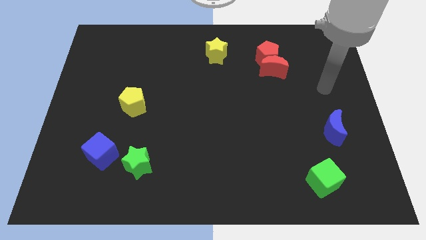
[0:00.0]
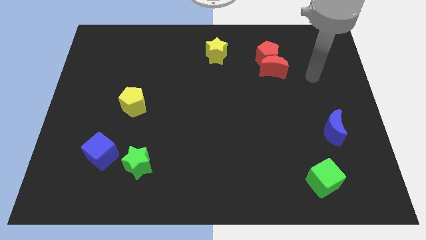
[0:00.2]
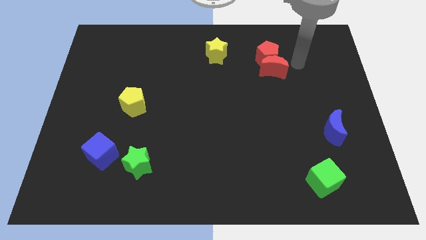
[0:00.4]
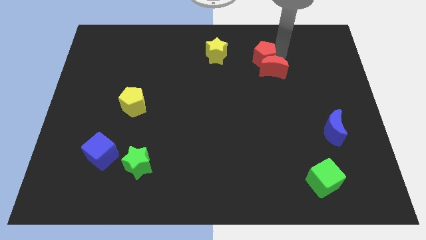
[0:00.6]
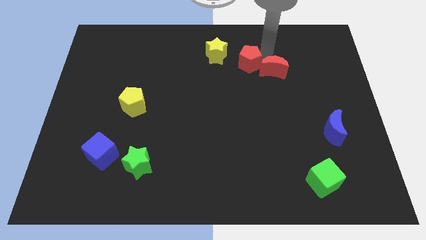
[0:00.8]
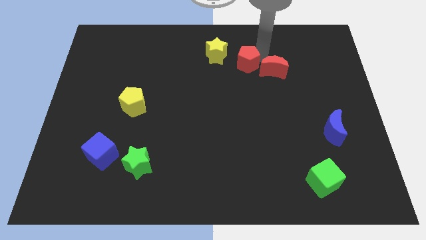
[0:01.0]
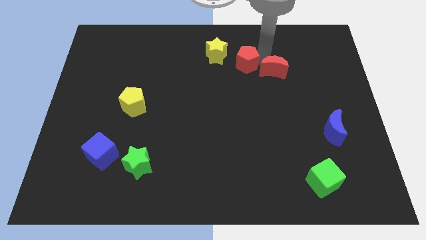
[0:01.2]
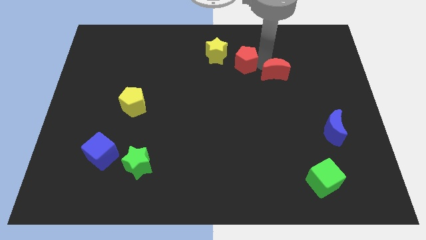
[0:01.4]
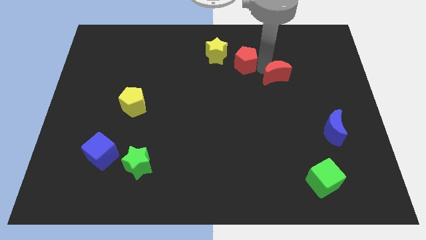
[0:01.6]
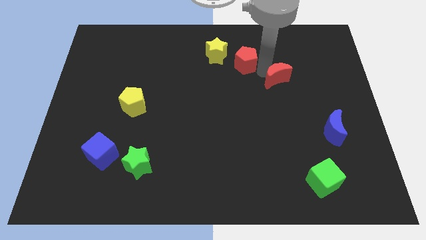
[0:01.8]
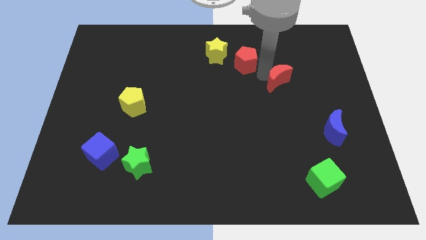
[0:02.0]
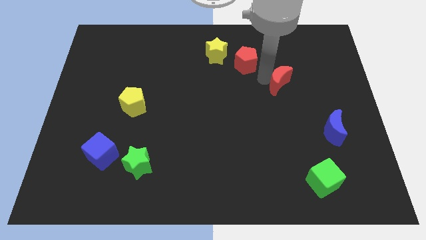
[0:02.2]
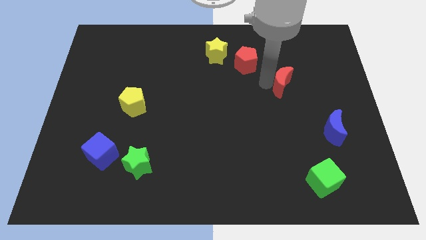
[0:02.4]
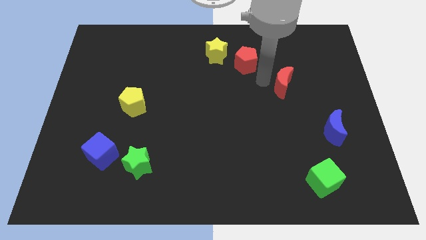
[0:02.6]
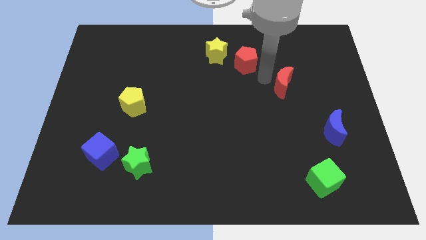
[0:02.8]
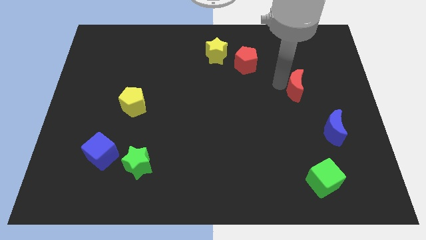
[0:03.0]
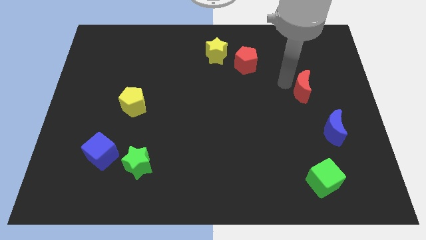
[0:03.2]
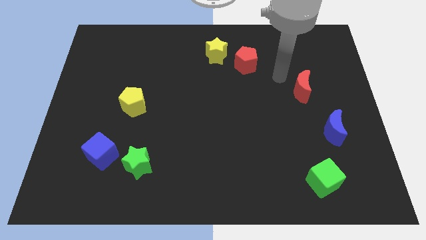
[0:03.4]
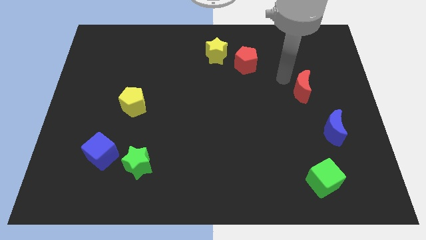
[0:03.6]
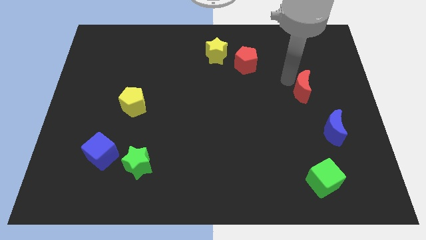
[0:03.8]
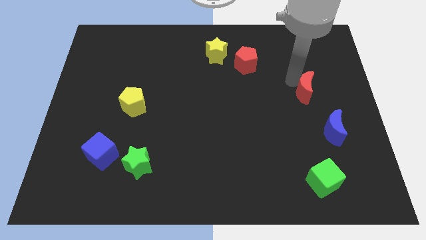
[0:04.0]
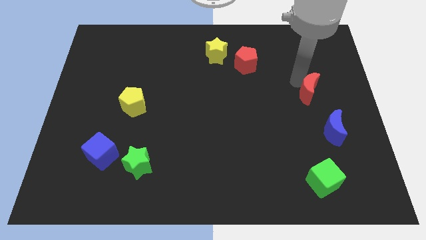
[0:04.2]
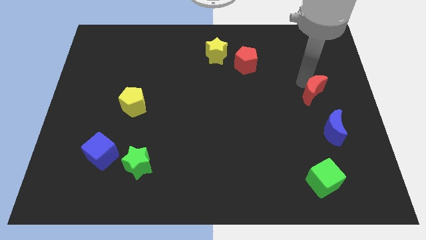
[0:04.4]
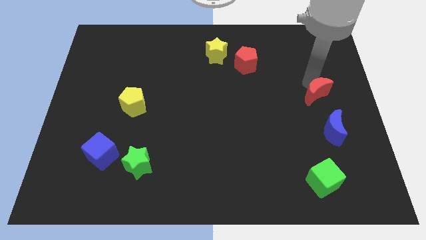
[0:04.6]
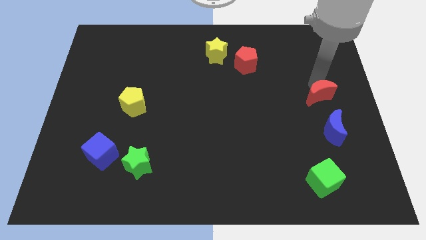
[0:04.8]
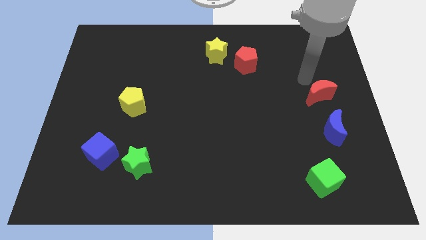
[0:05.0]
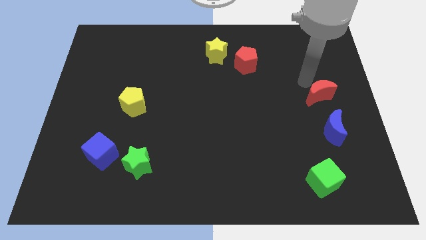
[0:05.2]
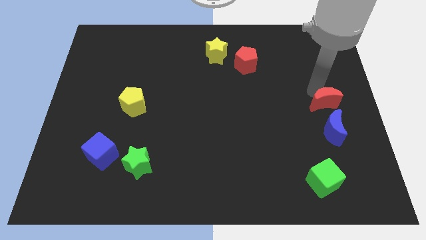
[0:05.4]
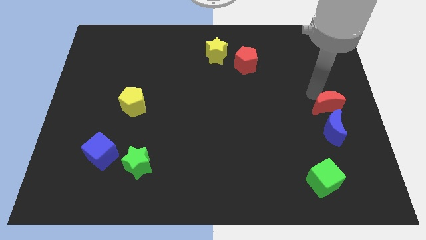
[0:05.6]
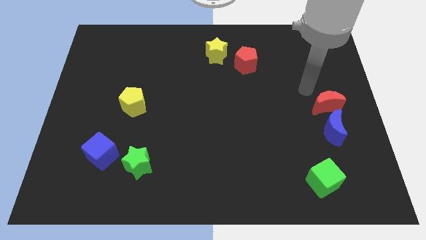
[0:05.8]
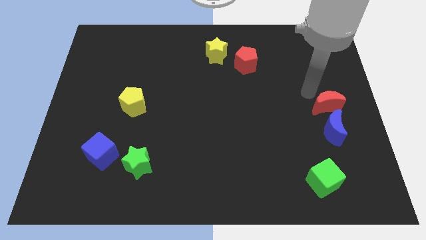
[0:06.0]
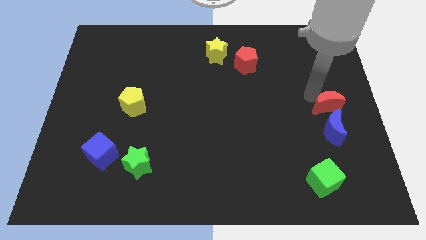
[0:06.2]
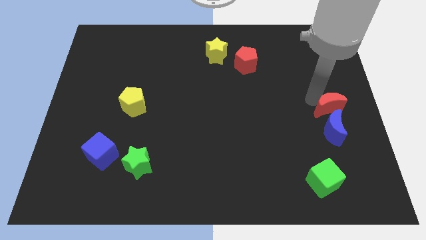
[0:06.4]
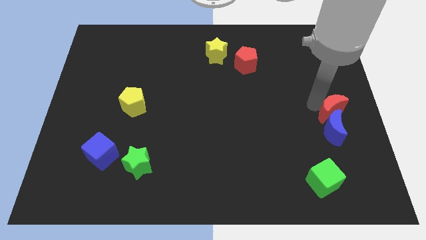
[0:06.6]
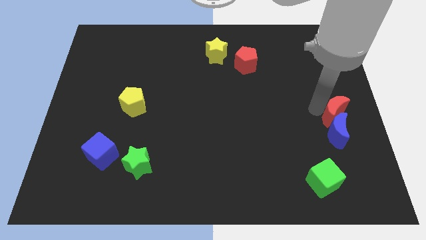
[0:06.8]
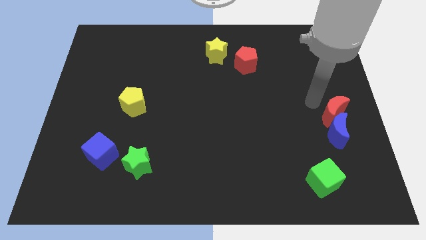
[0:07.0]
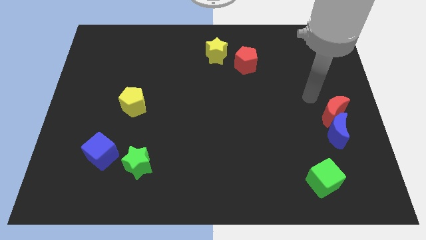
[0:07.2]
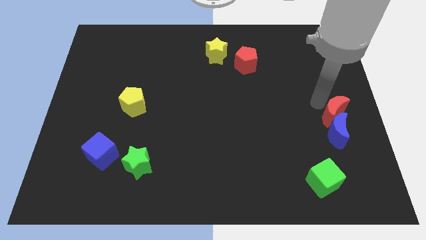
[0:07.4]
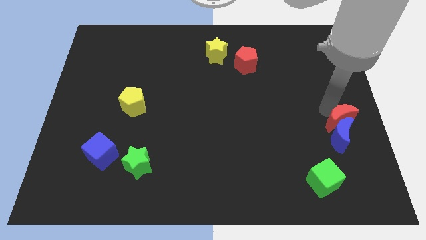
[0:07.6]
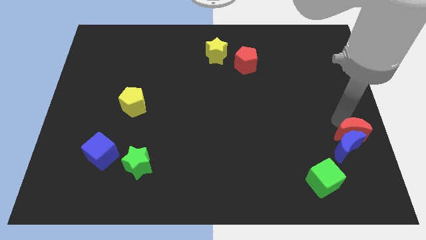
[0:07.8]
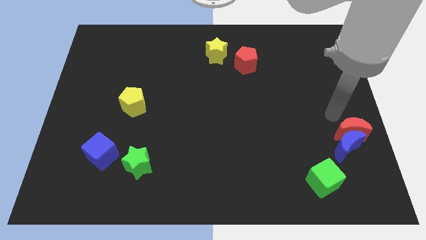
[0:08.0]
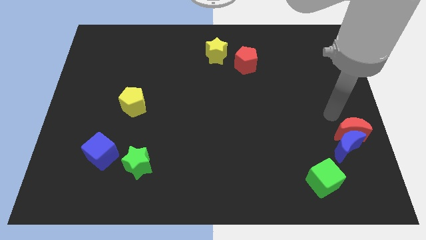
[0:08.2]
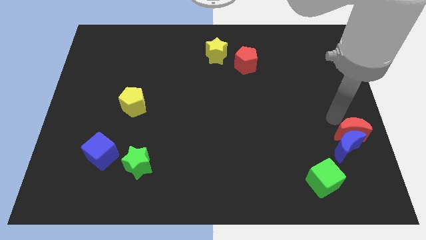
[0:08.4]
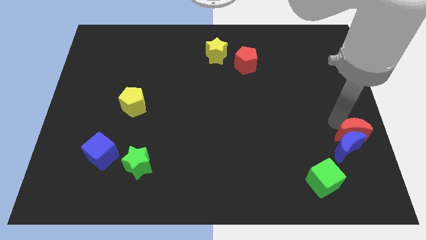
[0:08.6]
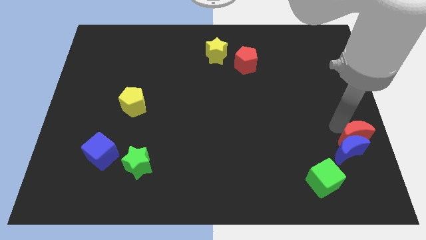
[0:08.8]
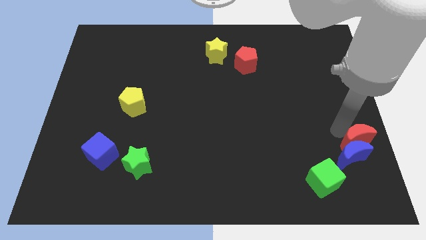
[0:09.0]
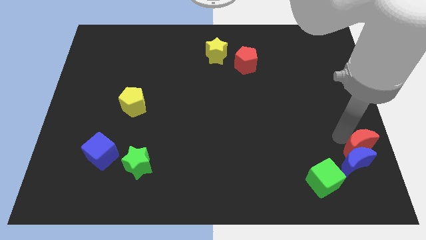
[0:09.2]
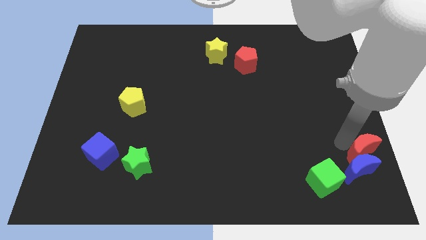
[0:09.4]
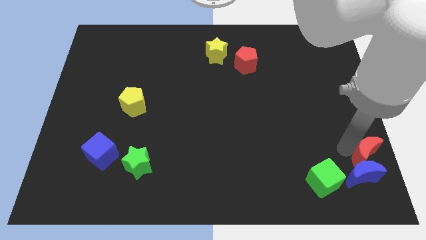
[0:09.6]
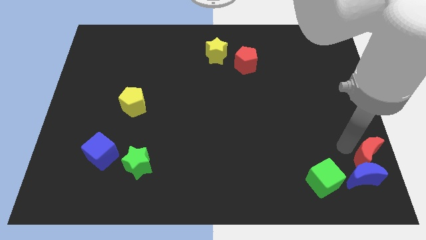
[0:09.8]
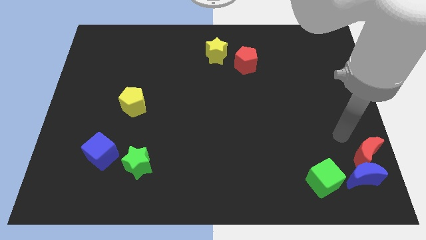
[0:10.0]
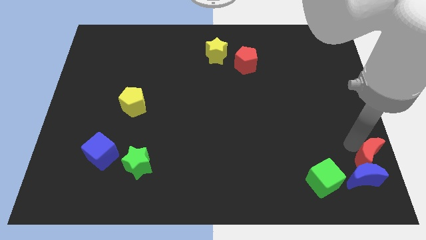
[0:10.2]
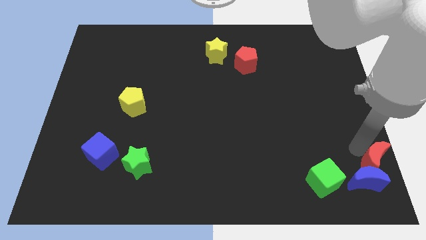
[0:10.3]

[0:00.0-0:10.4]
put the red moon to the bottom right corner
